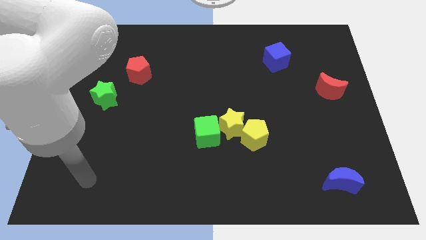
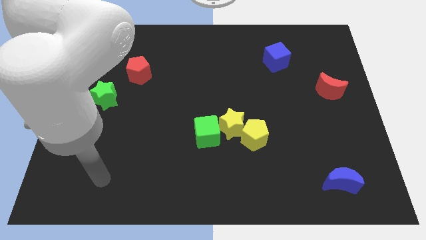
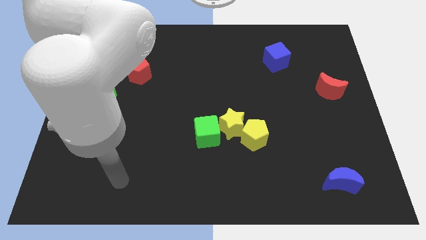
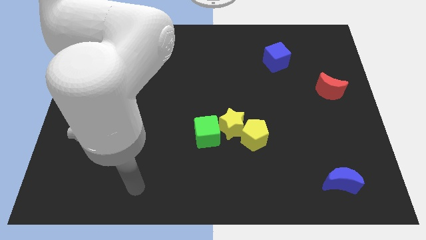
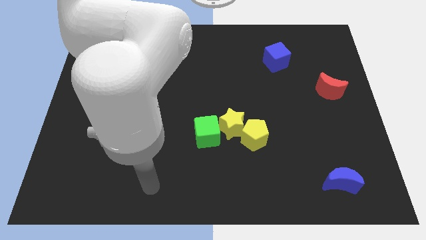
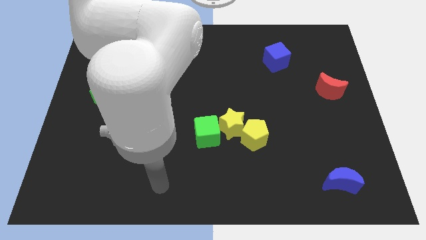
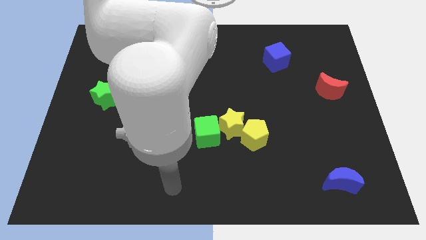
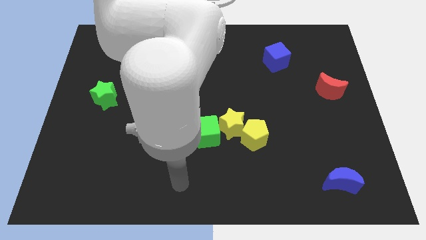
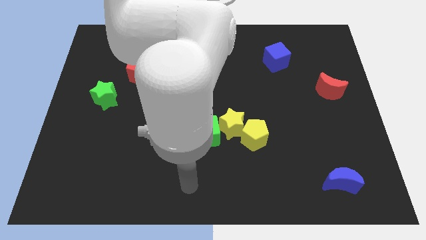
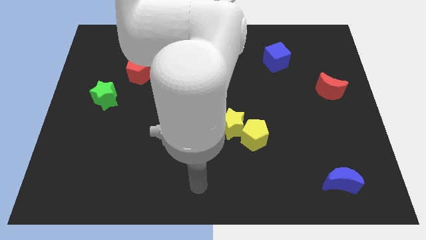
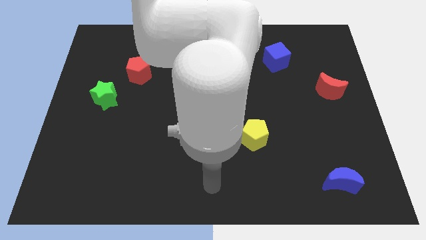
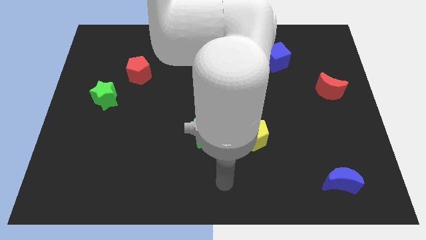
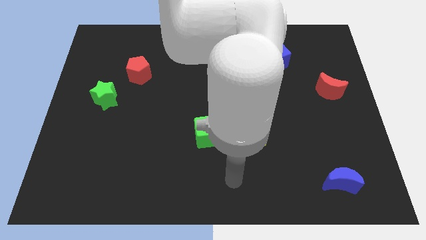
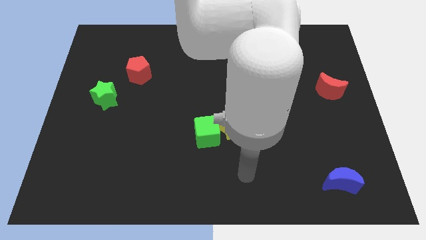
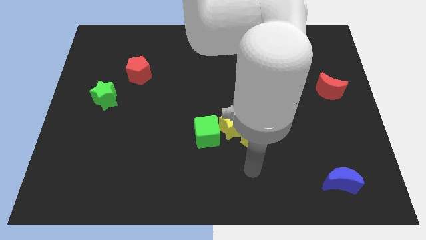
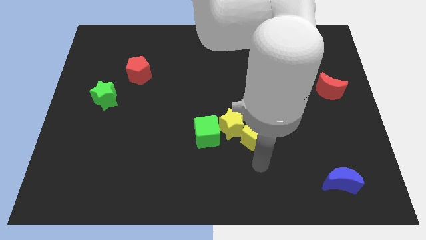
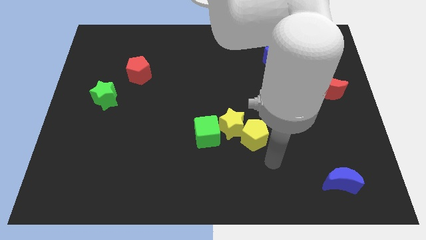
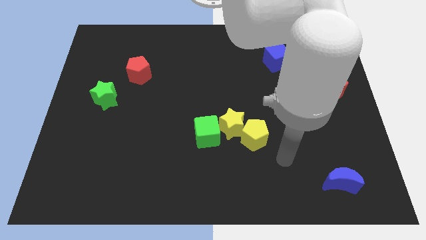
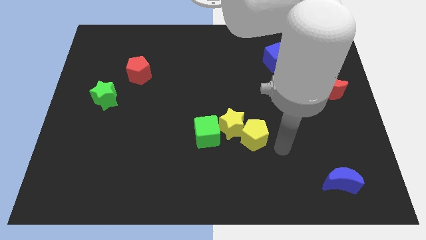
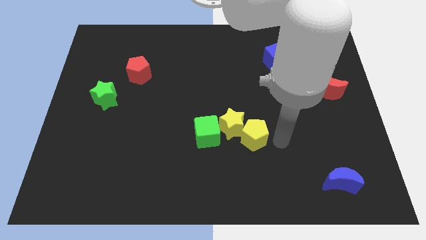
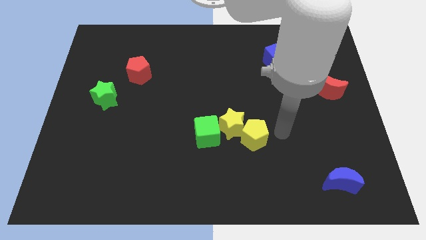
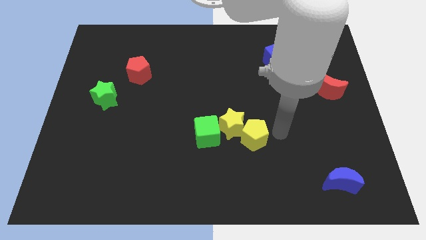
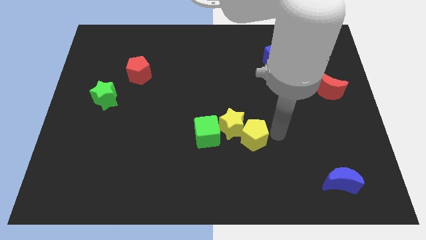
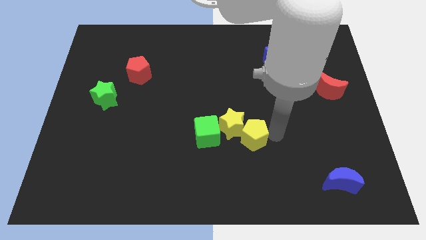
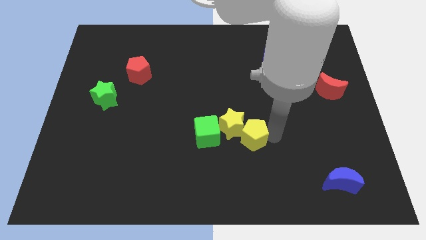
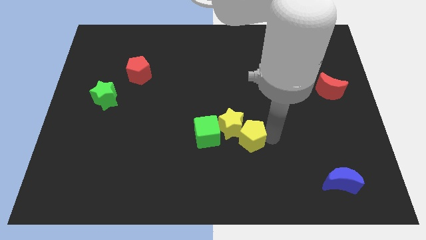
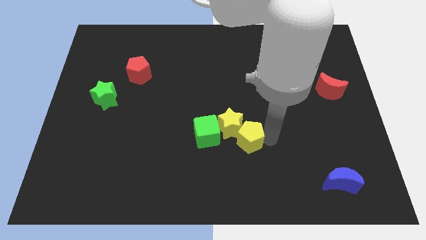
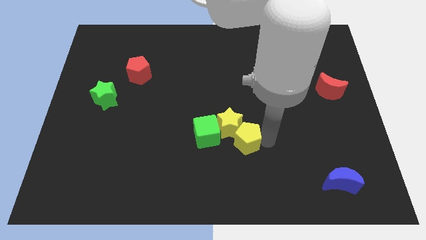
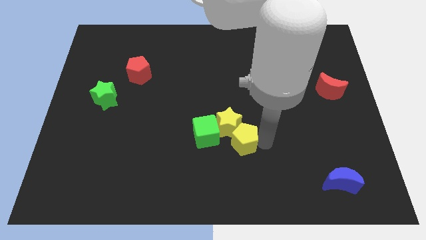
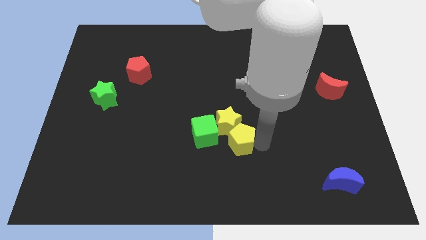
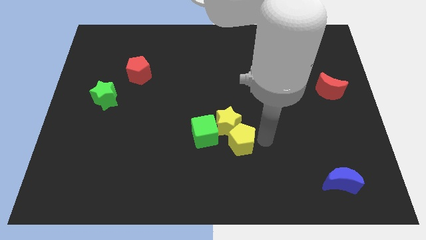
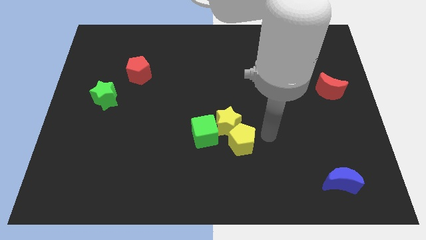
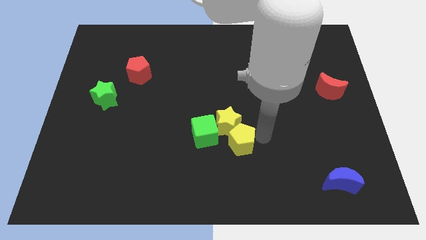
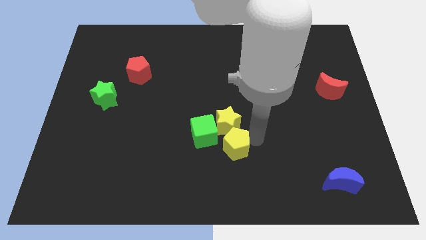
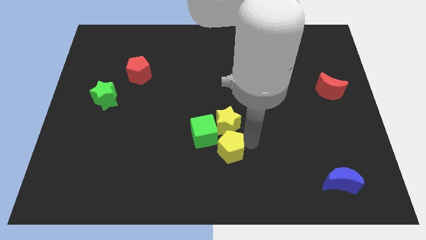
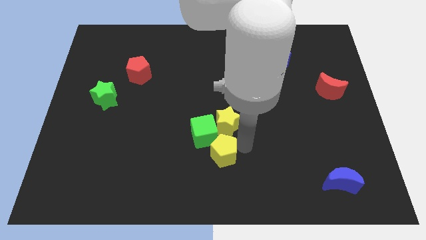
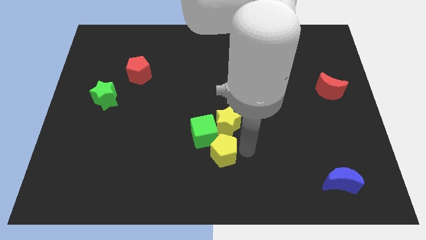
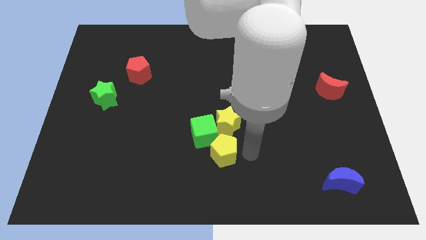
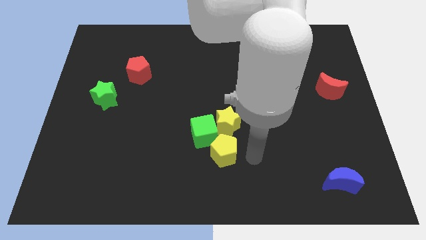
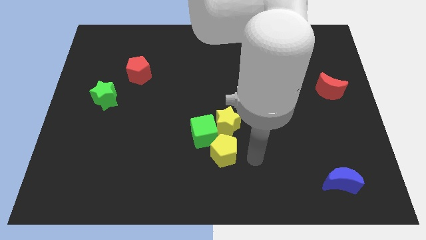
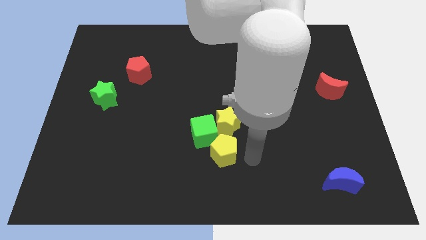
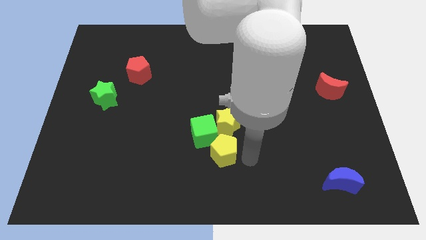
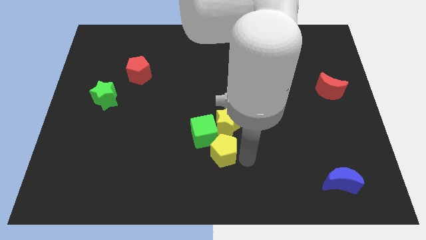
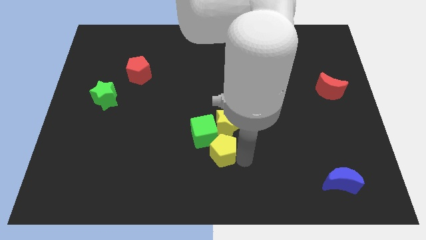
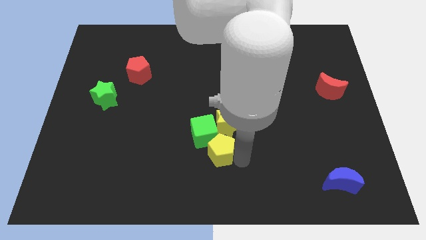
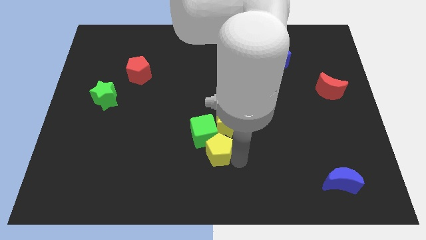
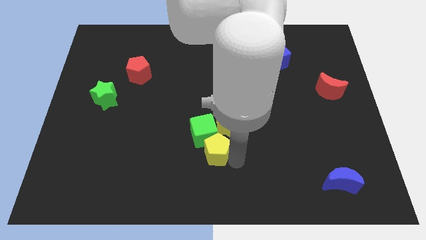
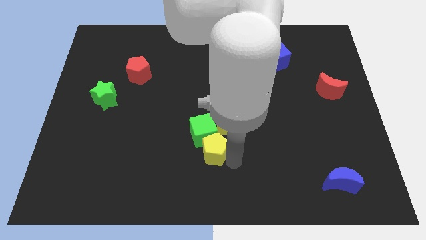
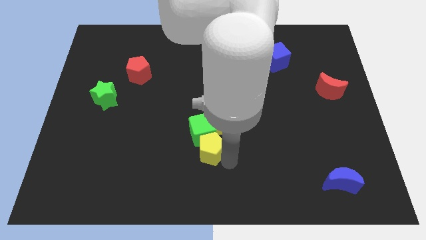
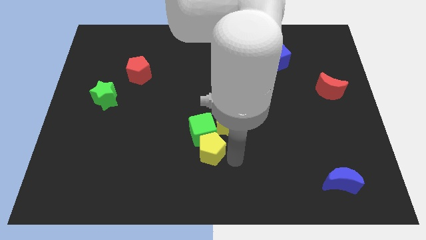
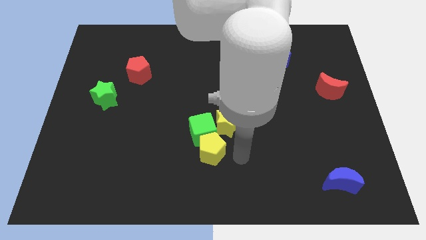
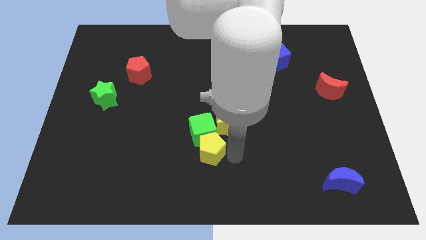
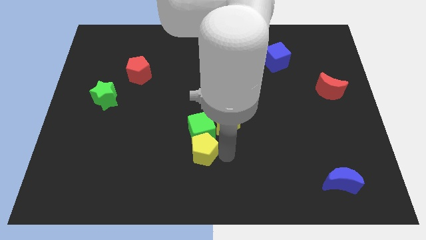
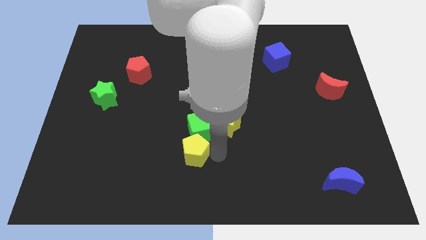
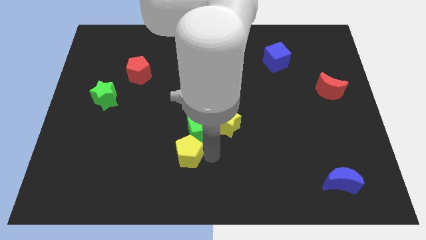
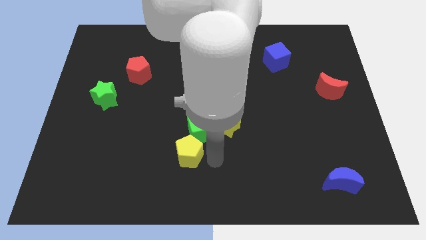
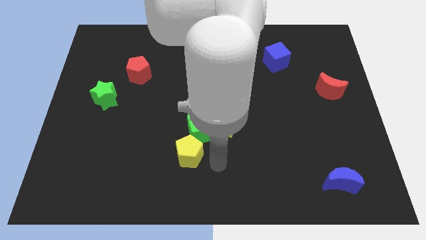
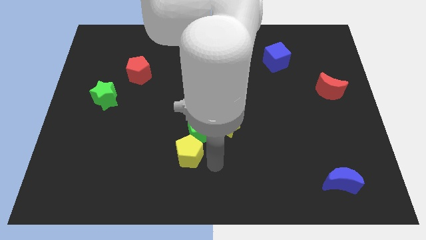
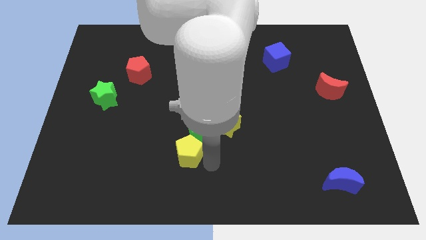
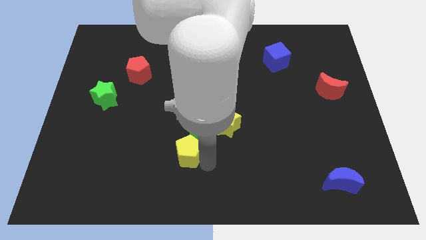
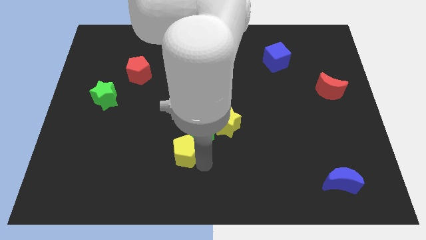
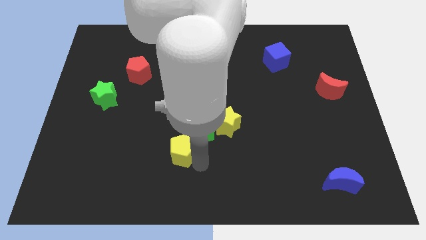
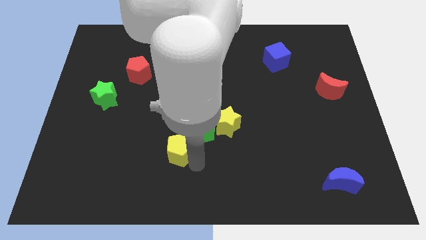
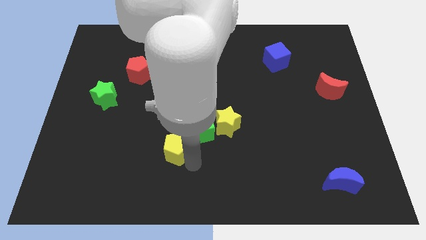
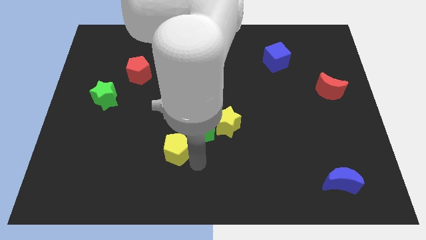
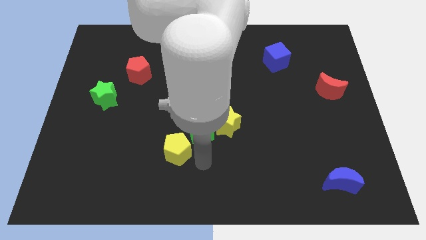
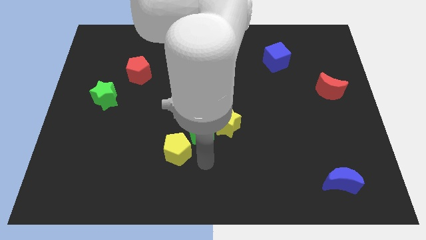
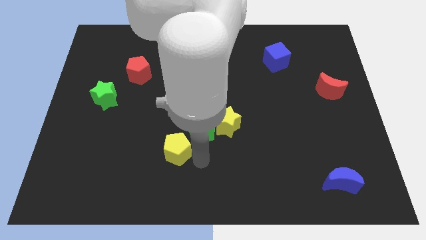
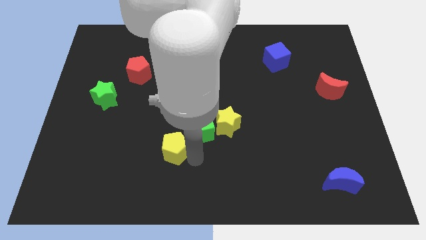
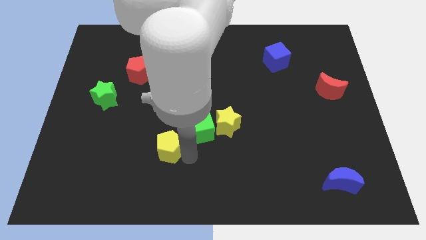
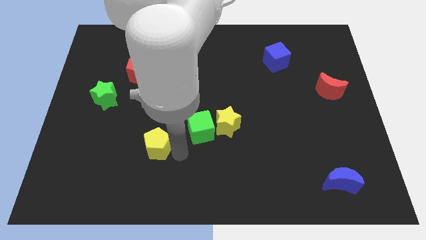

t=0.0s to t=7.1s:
move the yellow pentagon to the left

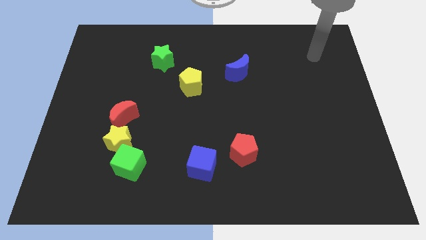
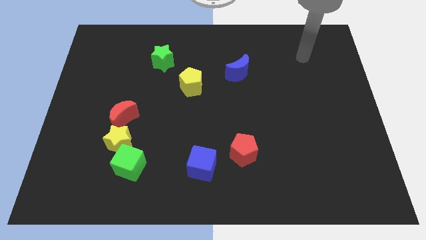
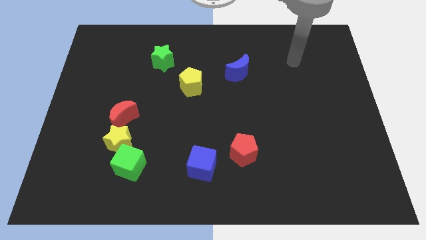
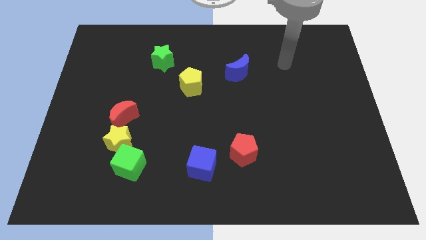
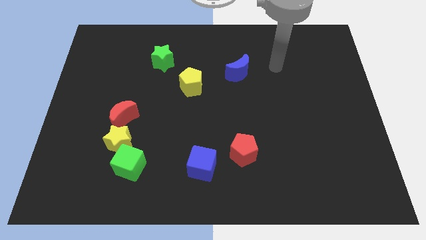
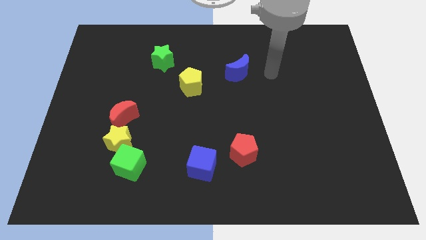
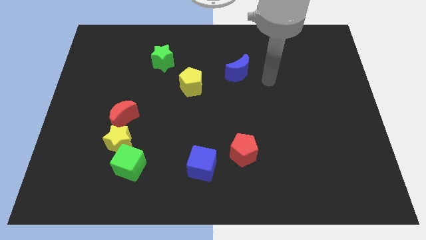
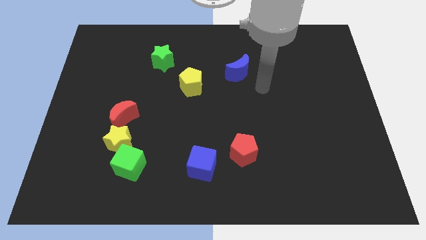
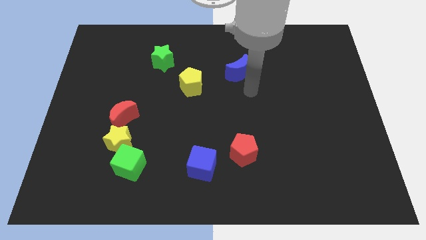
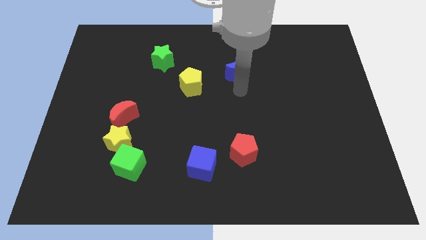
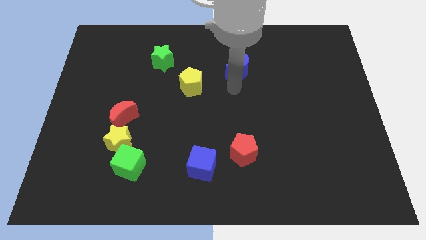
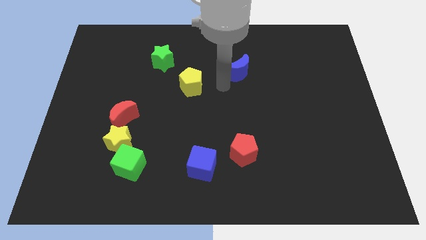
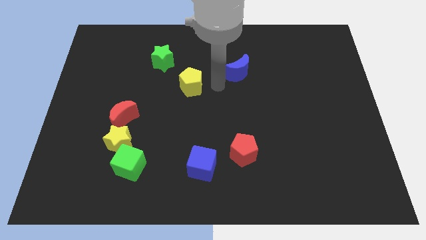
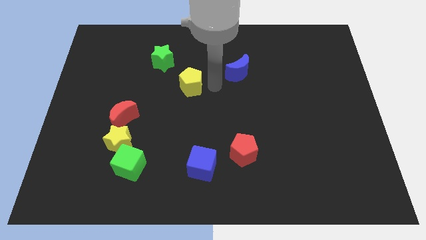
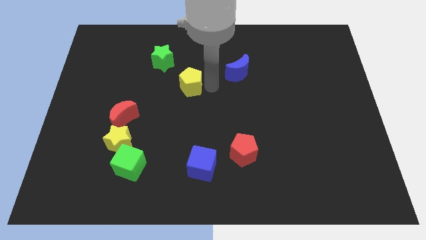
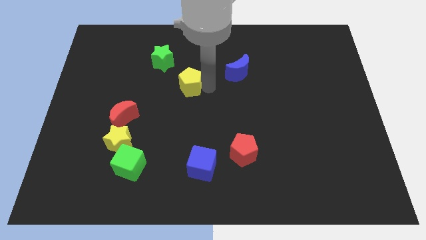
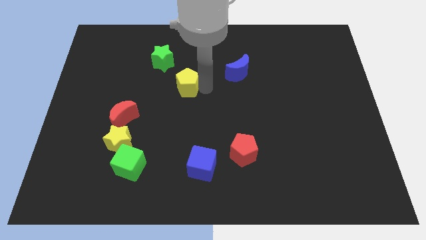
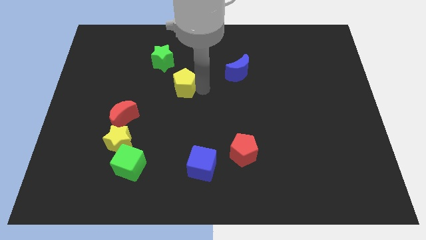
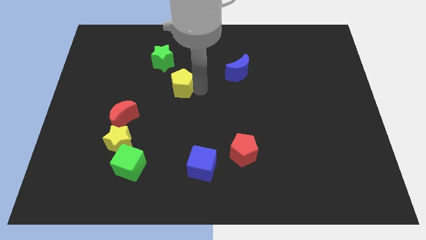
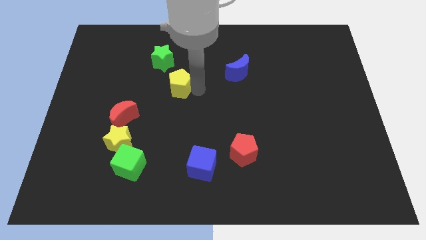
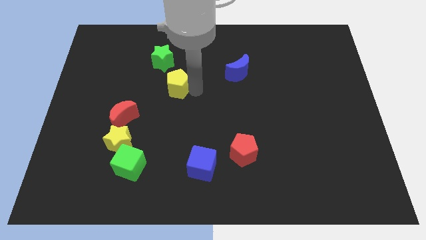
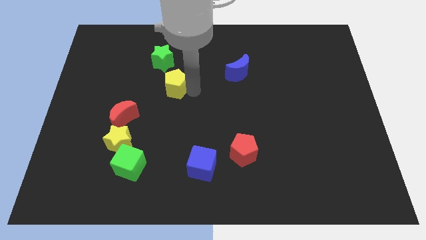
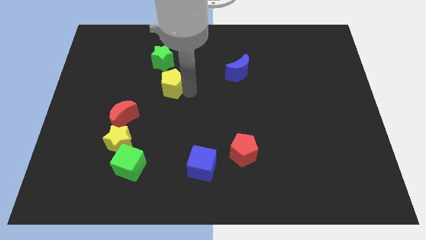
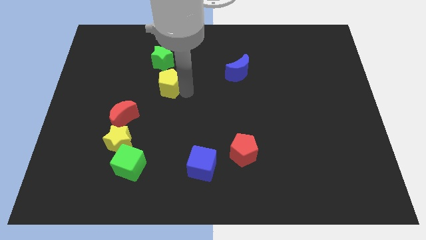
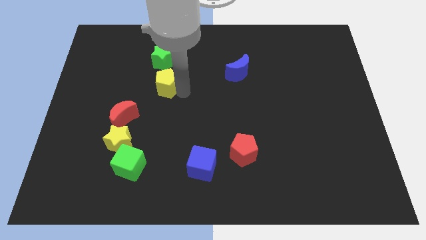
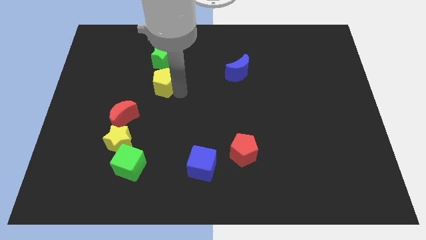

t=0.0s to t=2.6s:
slide the yellow pentagon slightly to the left
